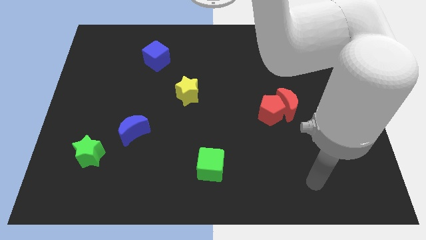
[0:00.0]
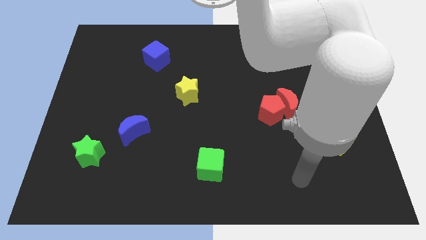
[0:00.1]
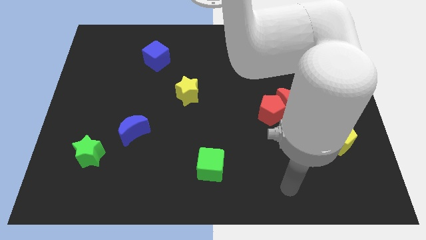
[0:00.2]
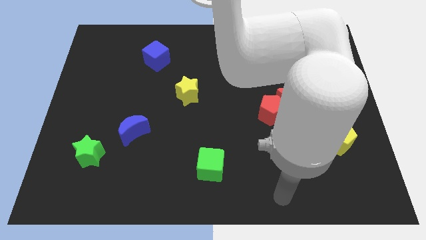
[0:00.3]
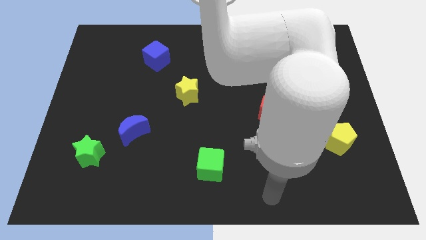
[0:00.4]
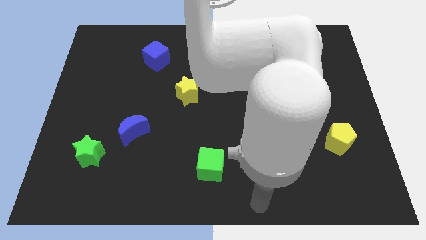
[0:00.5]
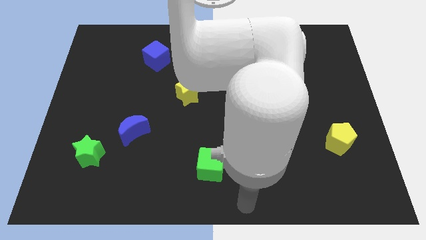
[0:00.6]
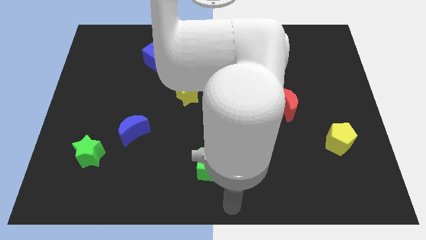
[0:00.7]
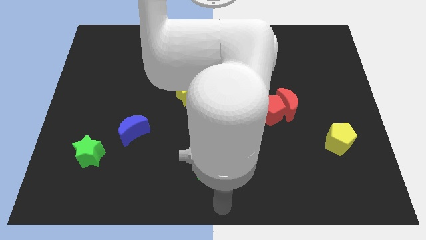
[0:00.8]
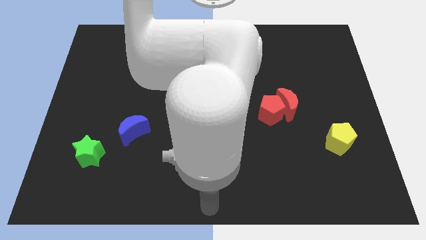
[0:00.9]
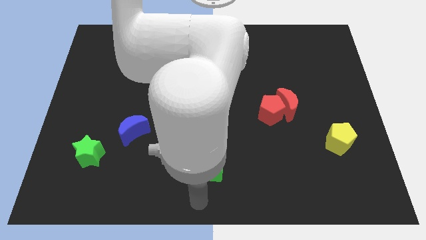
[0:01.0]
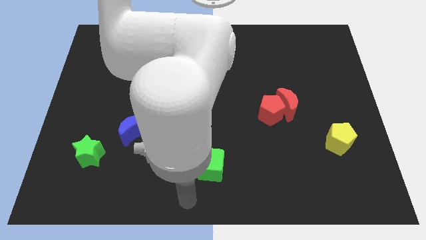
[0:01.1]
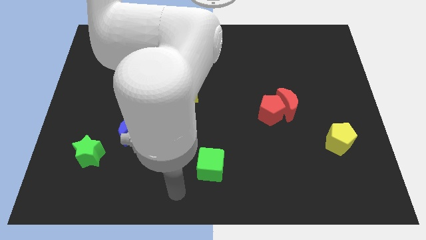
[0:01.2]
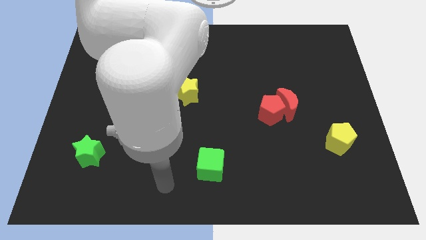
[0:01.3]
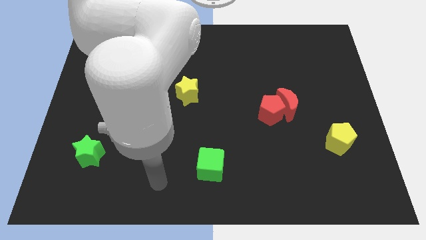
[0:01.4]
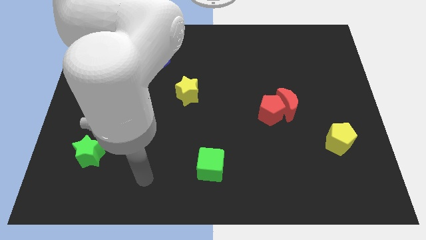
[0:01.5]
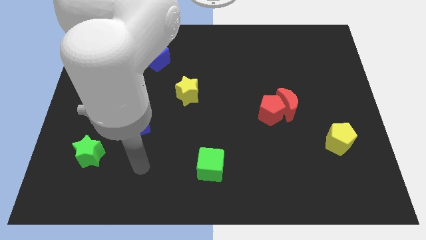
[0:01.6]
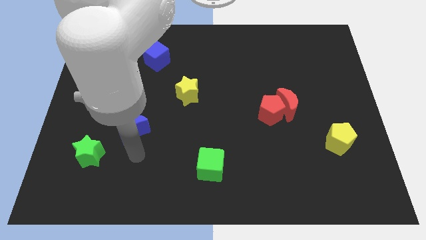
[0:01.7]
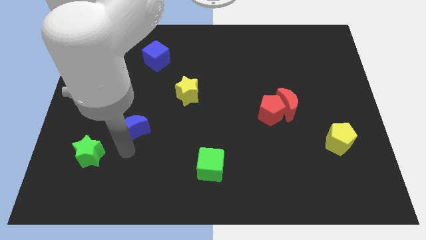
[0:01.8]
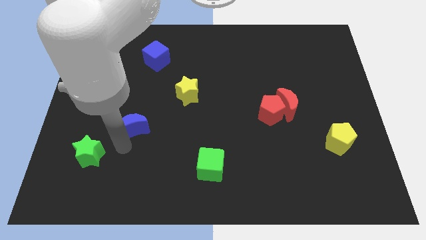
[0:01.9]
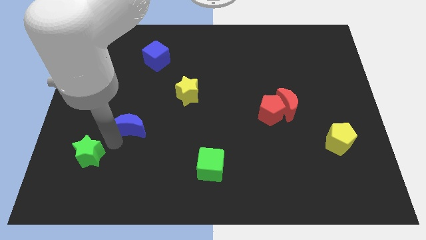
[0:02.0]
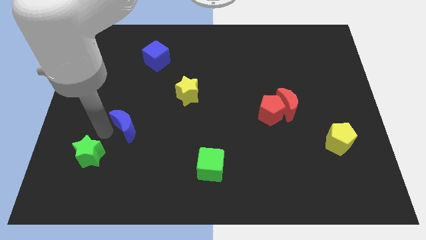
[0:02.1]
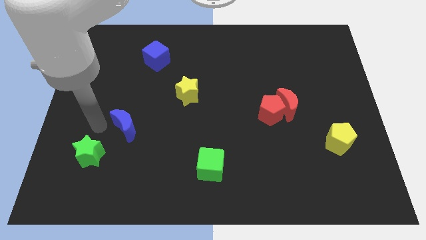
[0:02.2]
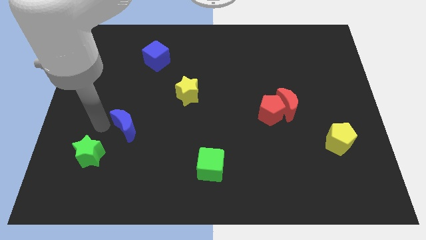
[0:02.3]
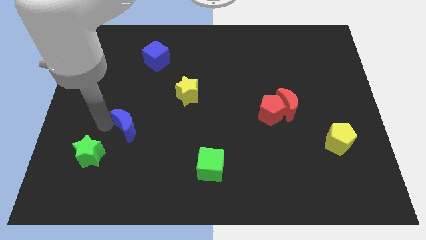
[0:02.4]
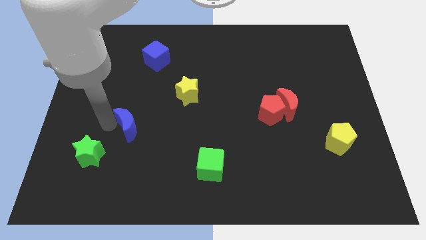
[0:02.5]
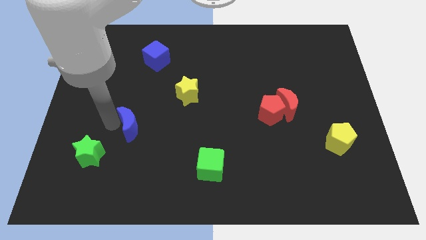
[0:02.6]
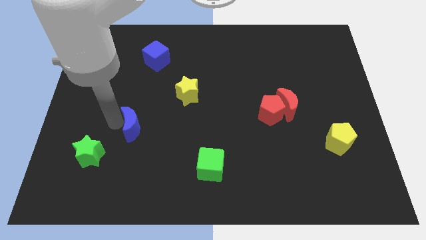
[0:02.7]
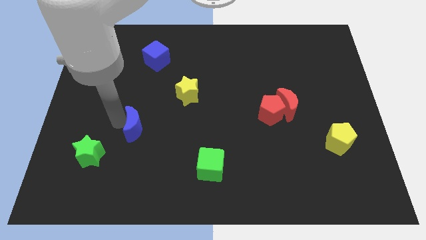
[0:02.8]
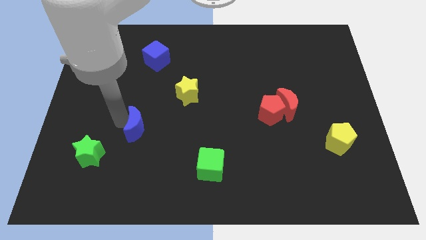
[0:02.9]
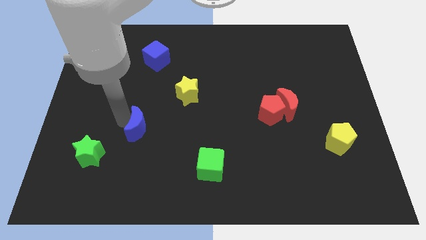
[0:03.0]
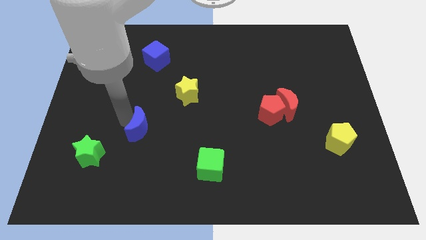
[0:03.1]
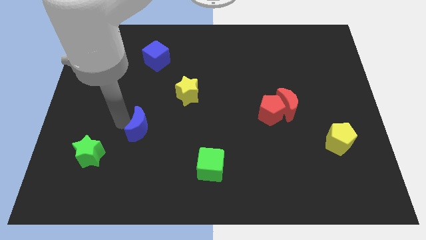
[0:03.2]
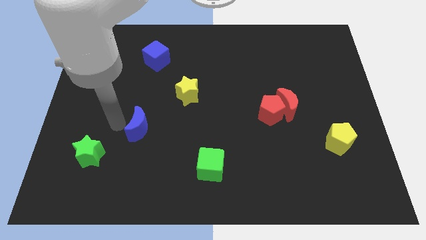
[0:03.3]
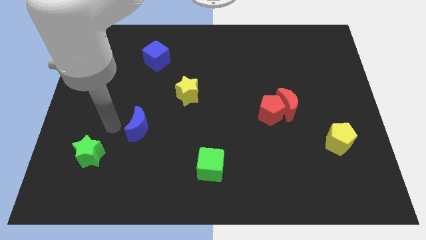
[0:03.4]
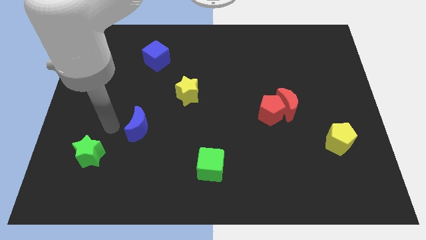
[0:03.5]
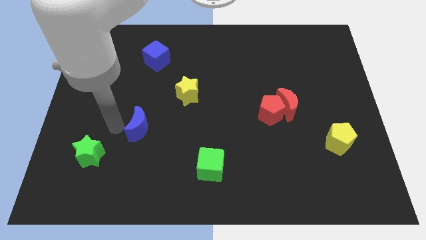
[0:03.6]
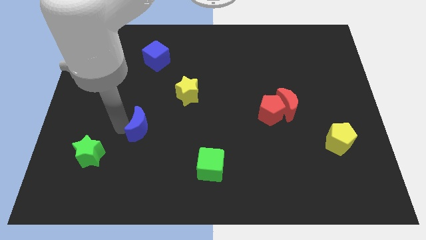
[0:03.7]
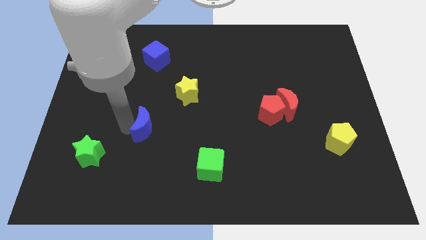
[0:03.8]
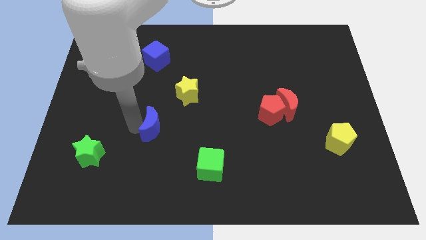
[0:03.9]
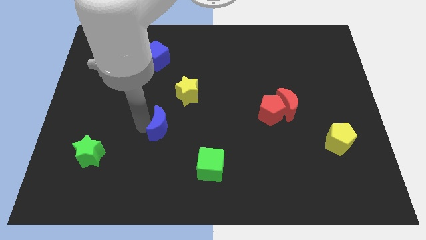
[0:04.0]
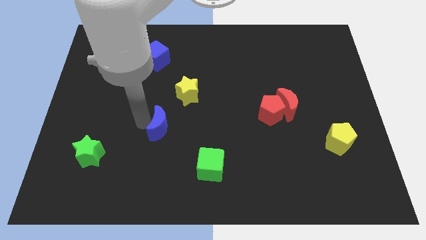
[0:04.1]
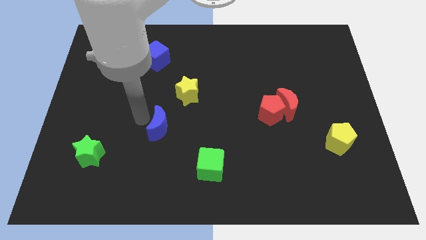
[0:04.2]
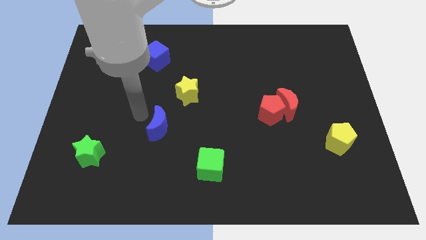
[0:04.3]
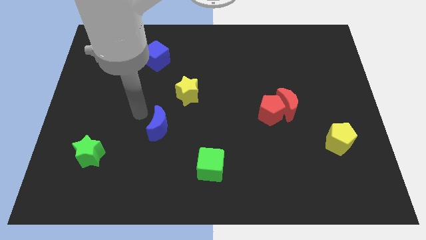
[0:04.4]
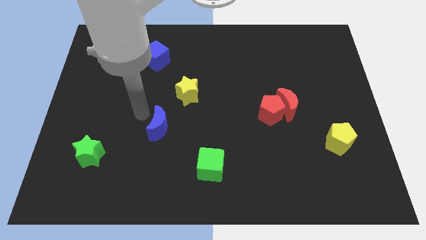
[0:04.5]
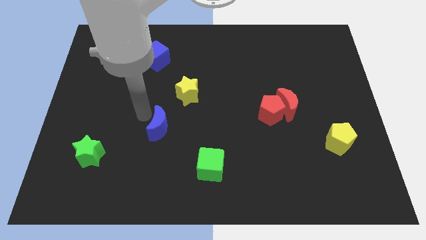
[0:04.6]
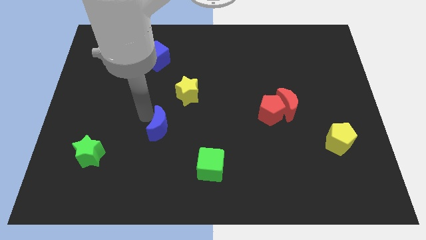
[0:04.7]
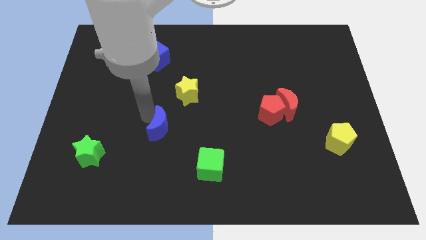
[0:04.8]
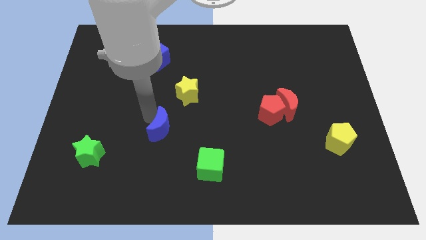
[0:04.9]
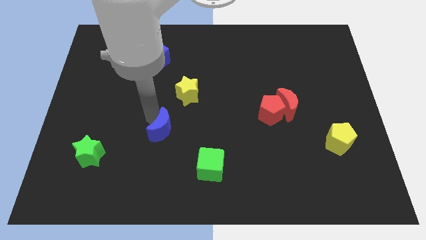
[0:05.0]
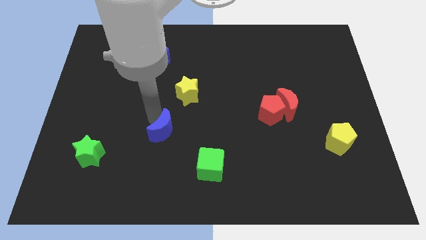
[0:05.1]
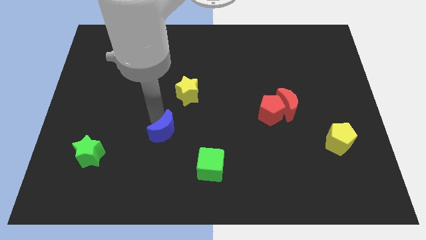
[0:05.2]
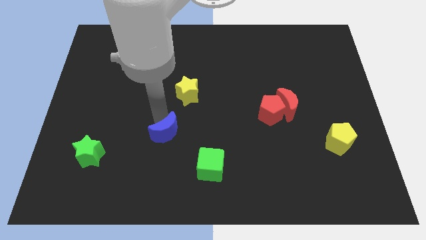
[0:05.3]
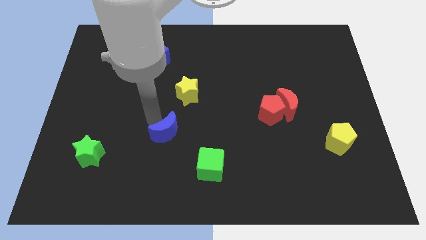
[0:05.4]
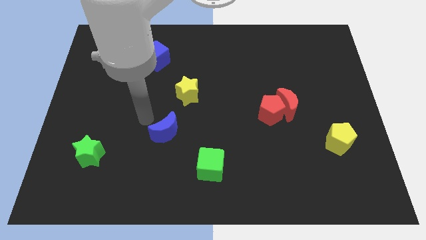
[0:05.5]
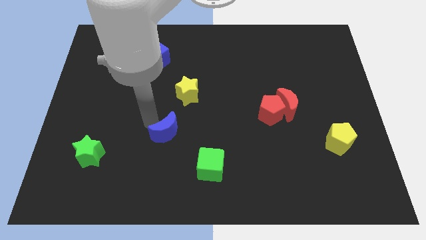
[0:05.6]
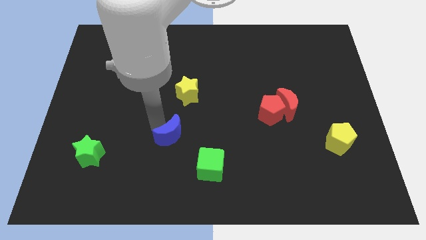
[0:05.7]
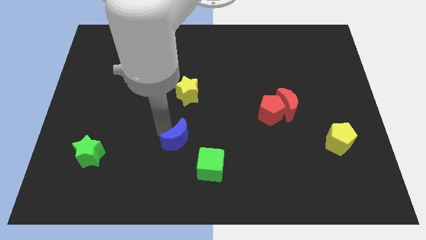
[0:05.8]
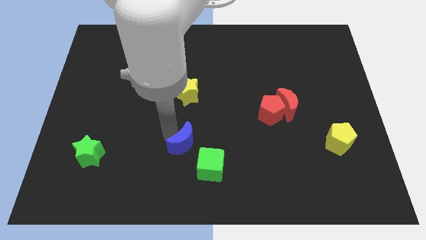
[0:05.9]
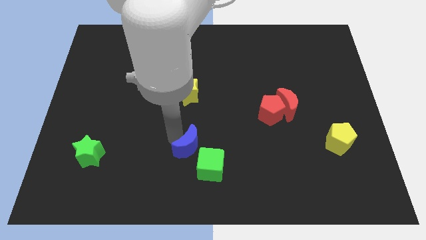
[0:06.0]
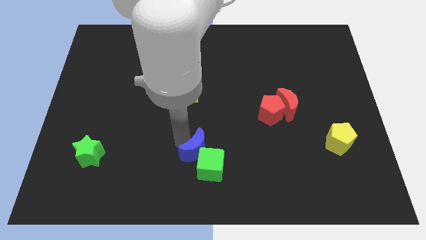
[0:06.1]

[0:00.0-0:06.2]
push the blue moon to the green cube
